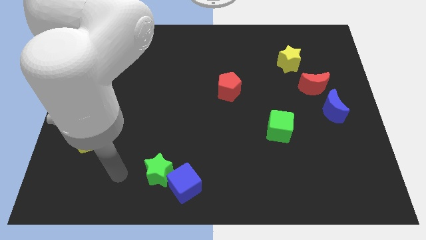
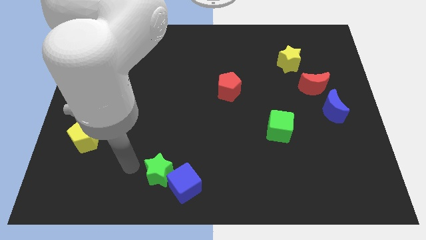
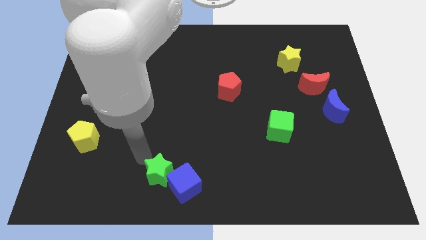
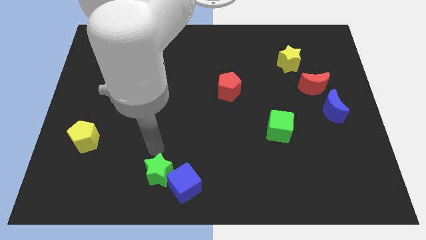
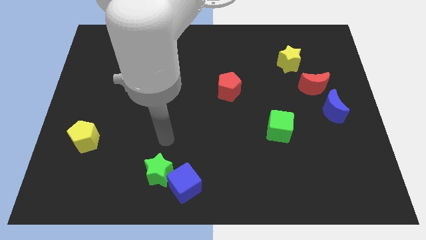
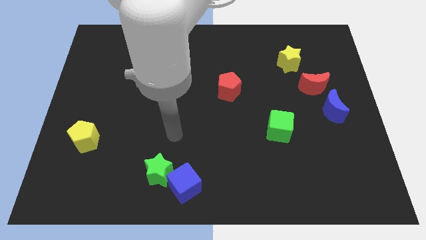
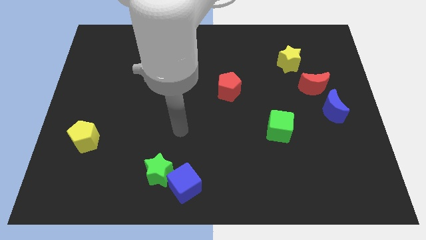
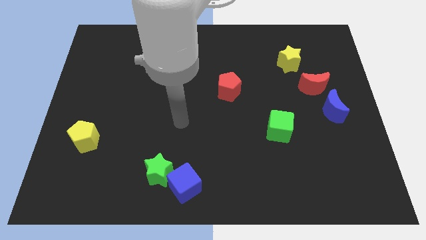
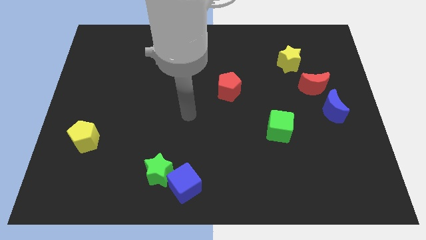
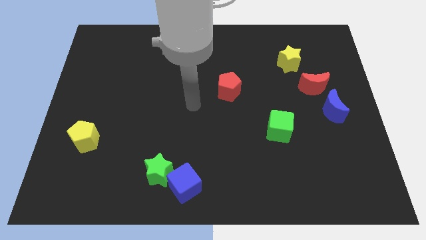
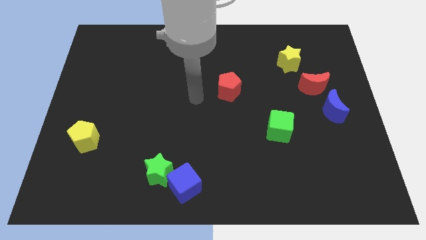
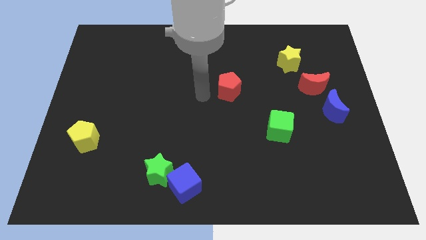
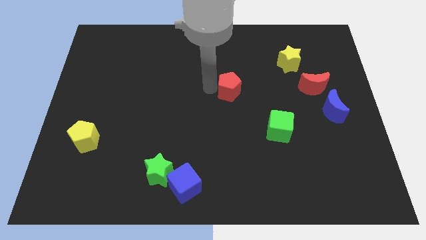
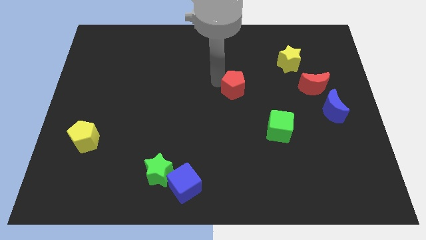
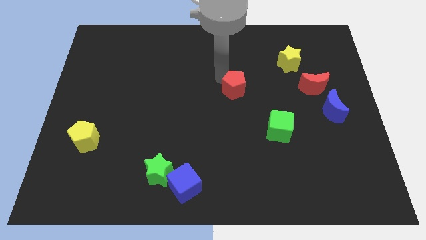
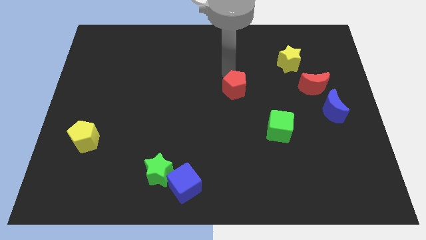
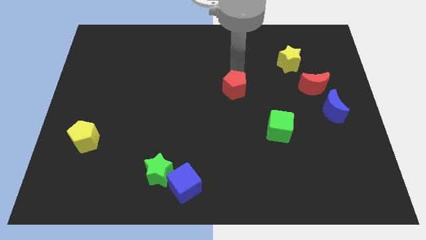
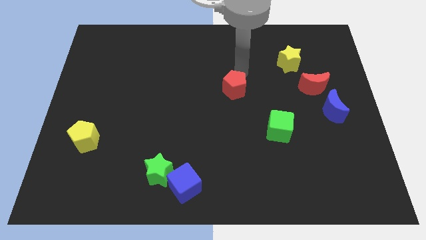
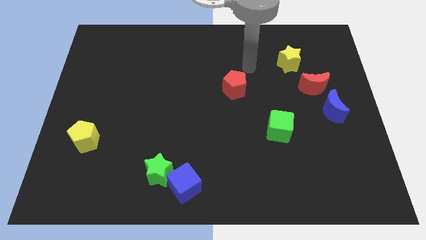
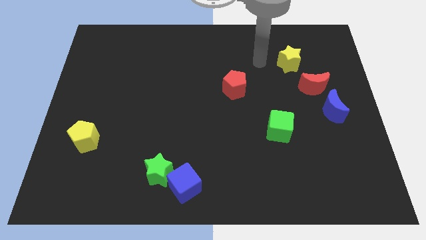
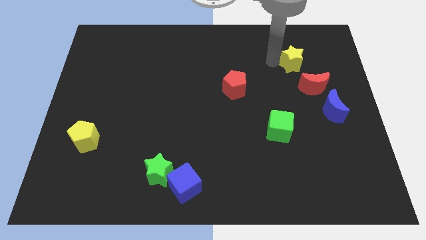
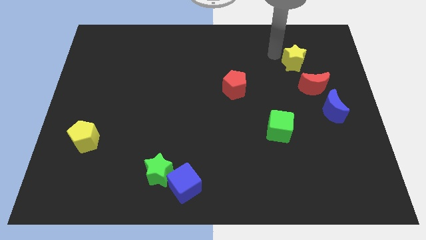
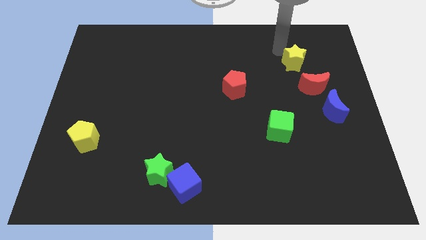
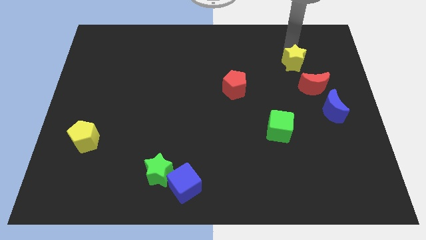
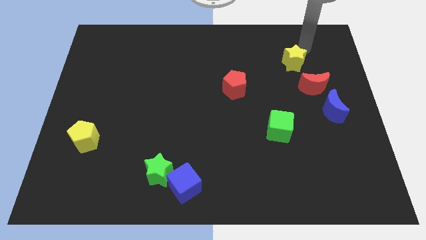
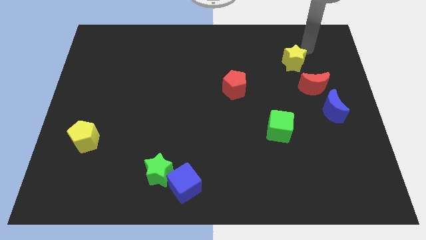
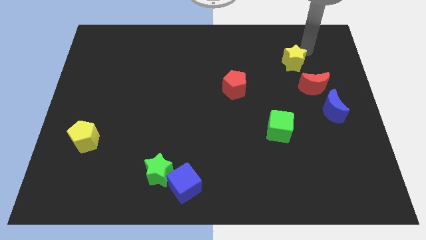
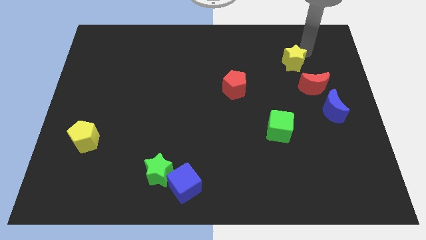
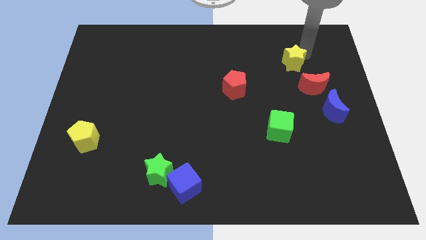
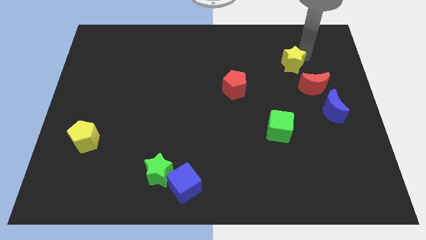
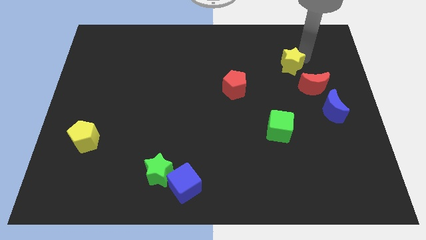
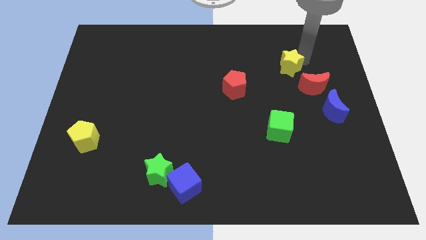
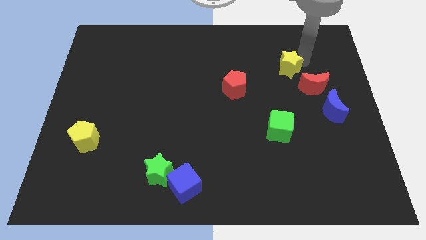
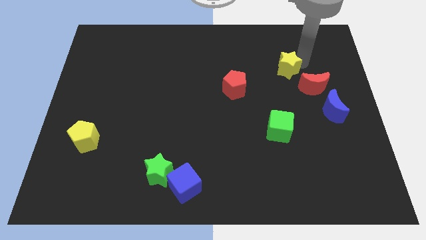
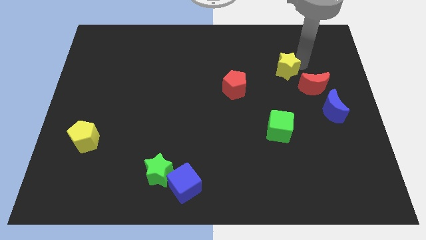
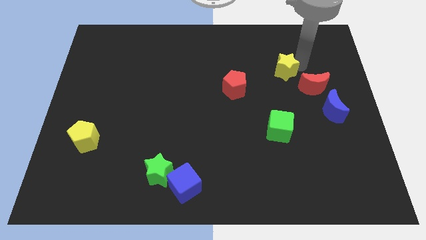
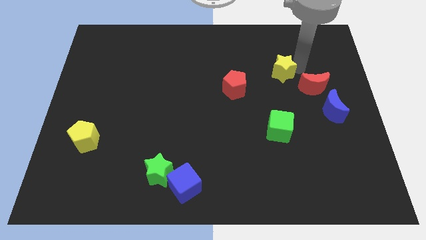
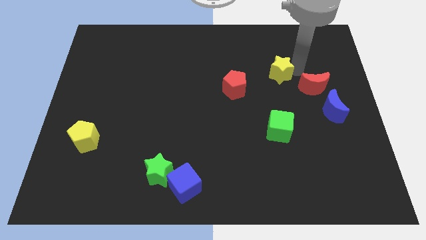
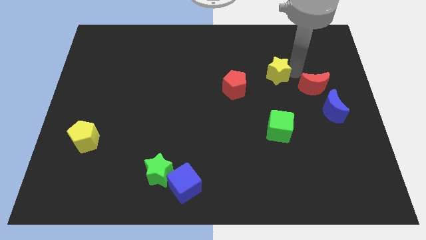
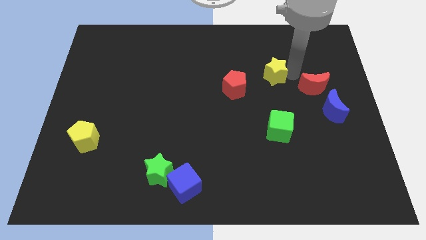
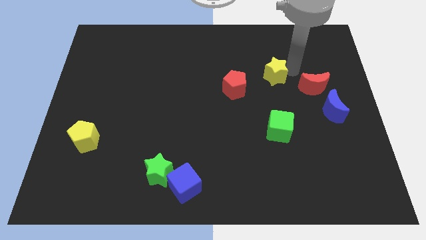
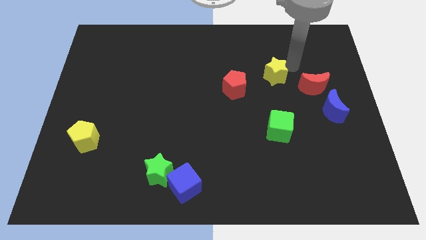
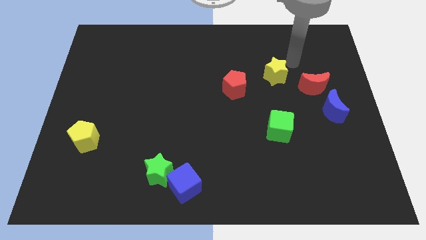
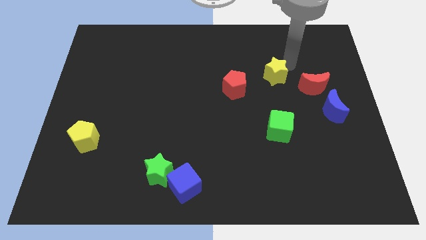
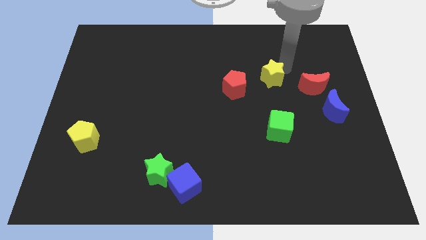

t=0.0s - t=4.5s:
push the yellow star somewhat diagonally down and left

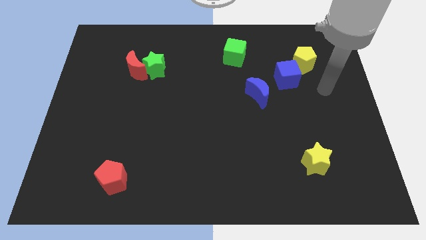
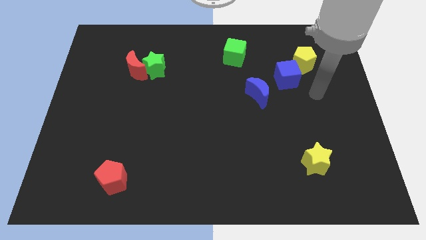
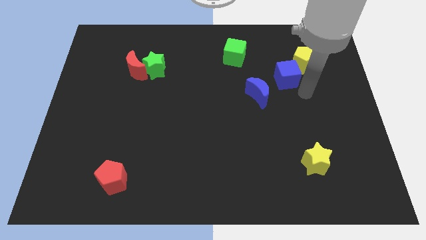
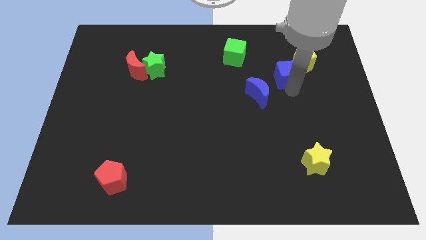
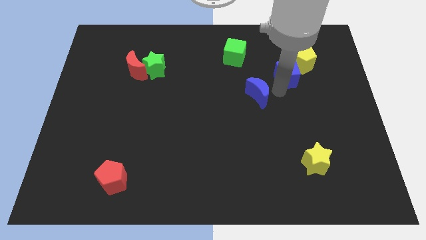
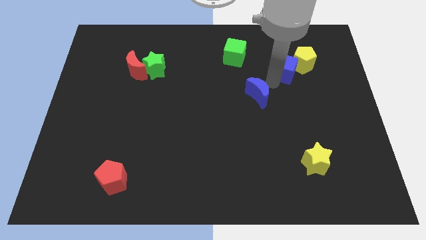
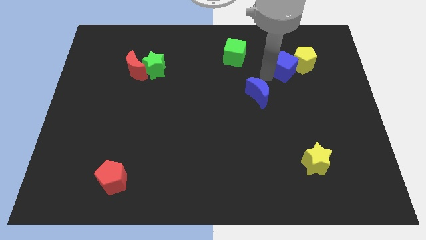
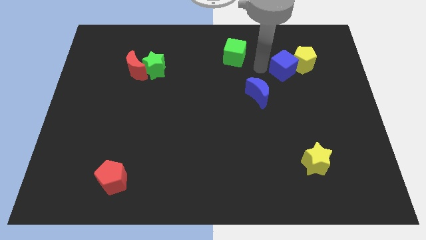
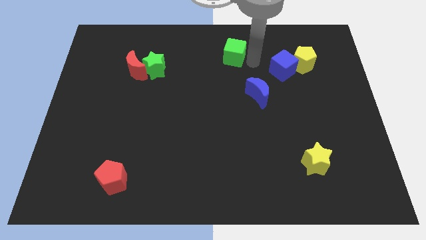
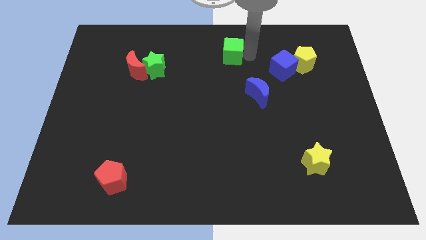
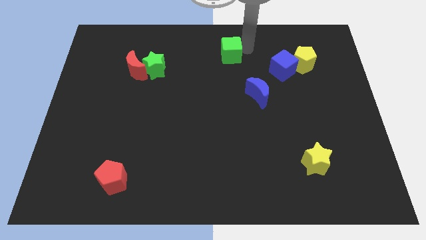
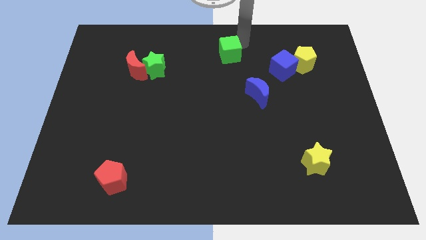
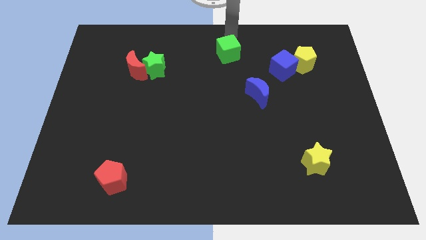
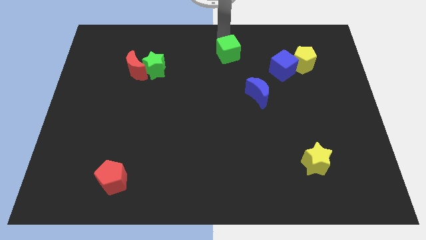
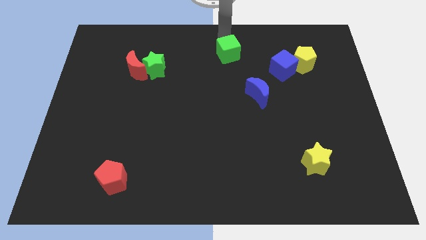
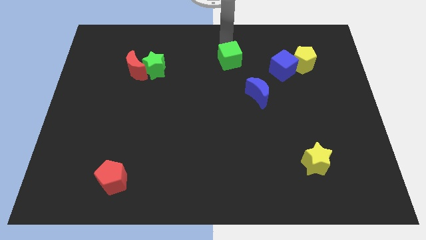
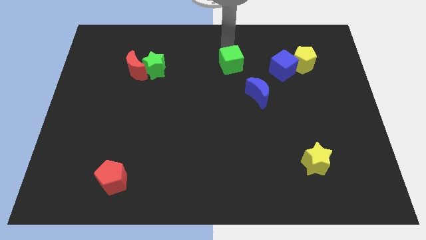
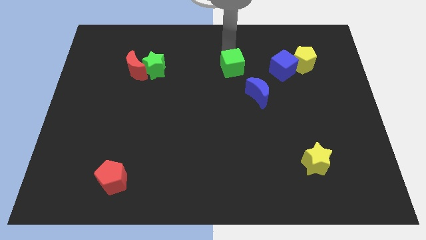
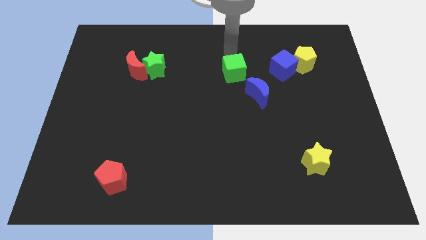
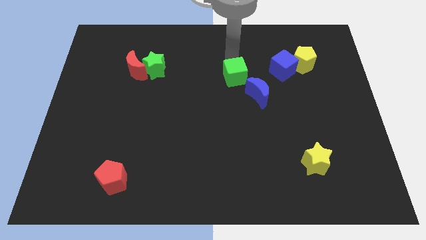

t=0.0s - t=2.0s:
push the green cube downwards somewhat

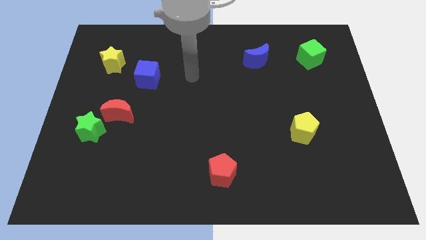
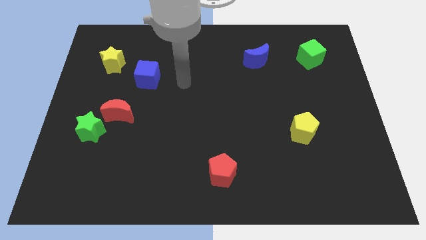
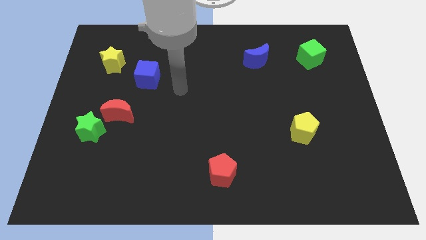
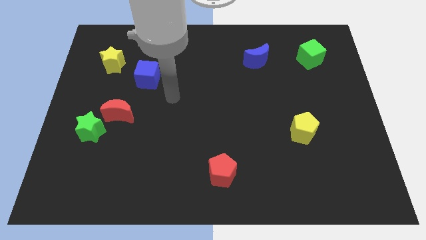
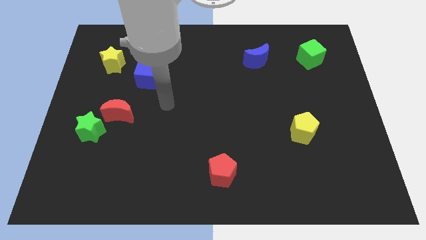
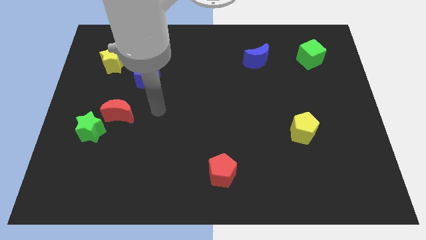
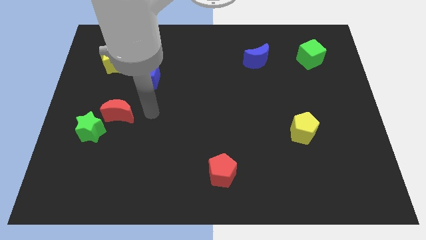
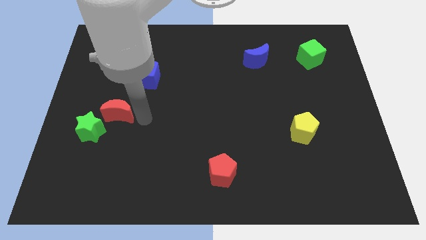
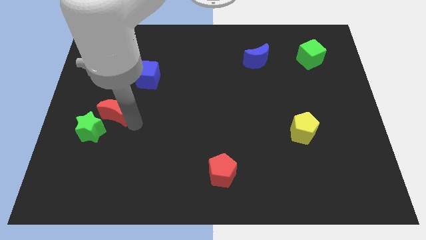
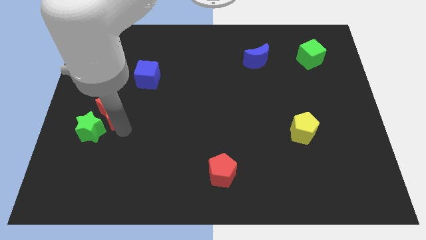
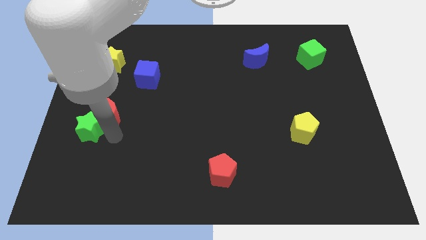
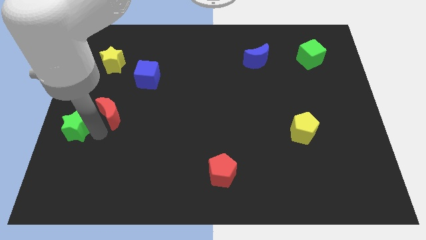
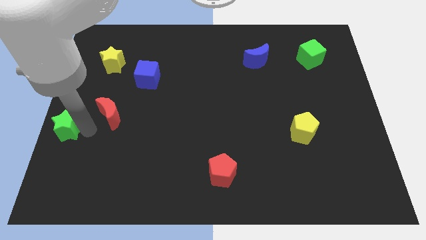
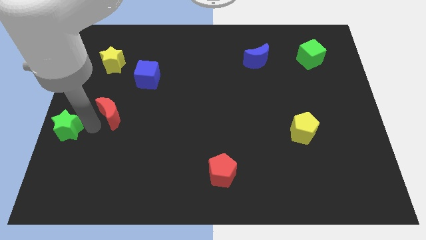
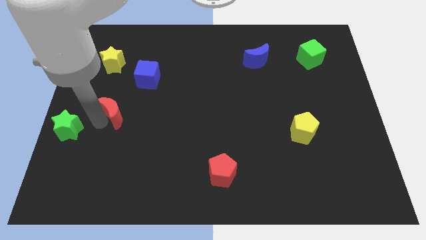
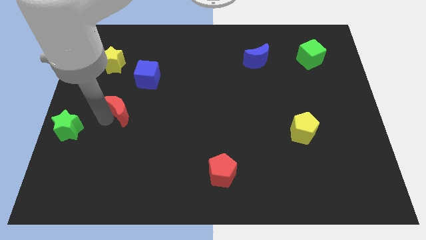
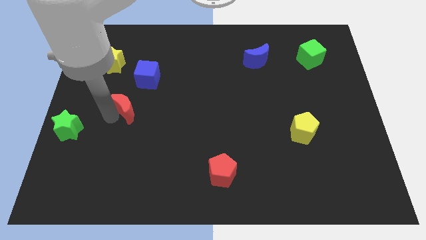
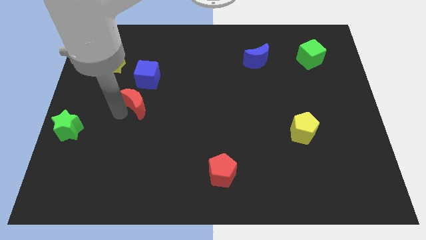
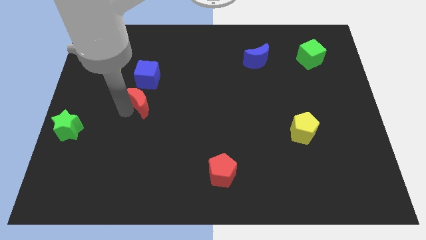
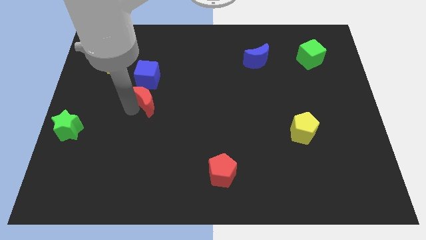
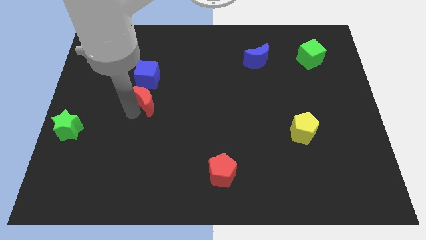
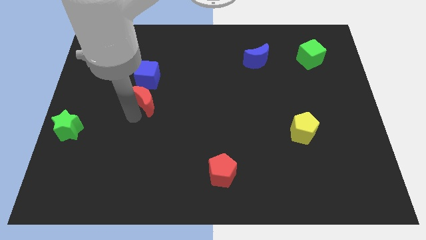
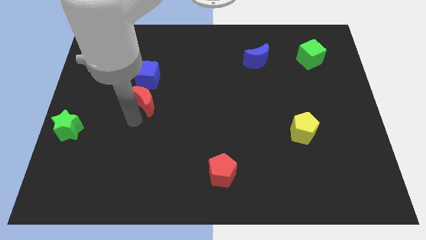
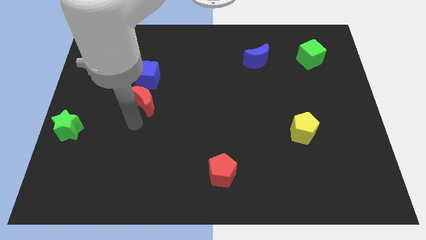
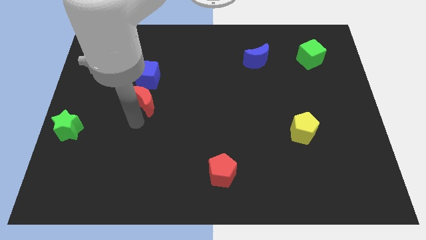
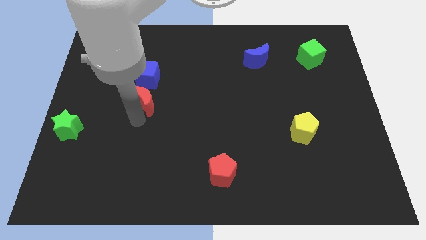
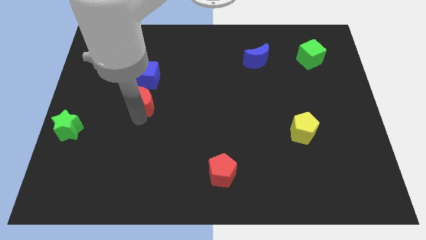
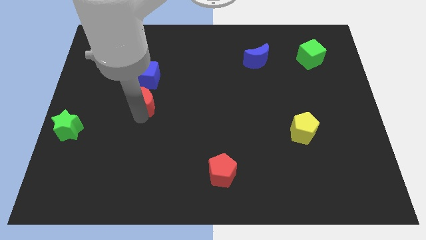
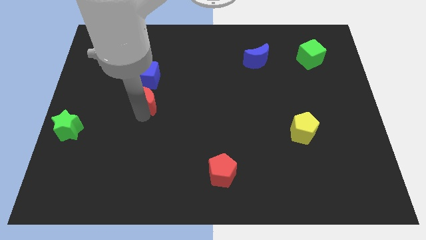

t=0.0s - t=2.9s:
slide the red moon up and right diagonally a little
